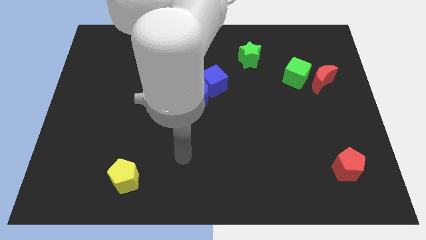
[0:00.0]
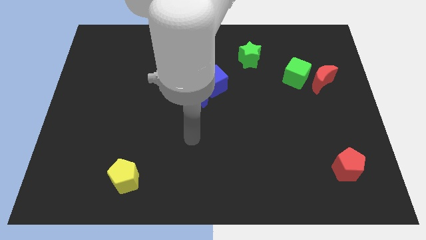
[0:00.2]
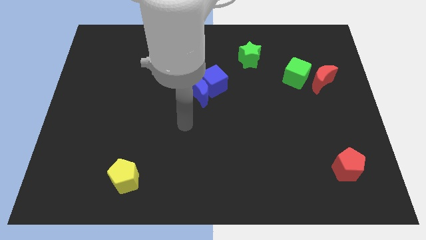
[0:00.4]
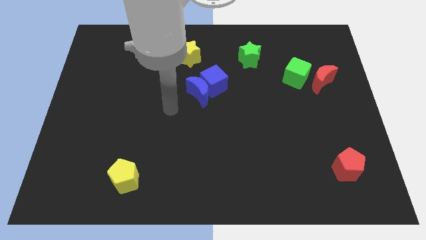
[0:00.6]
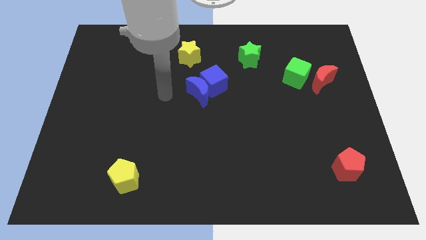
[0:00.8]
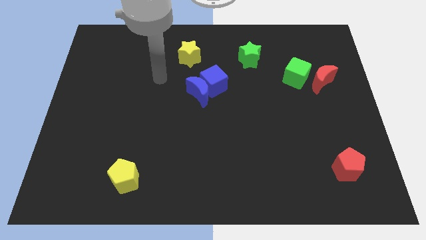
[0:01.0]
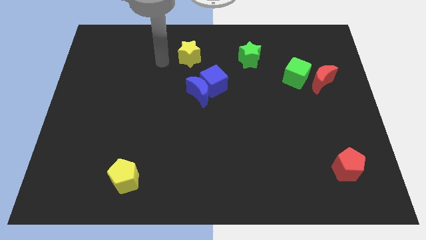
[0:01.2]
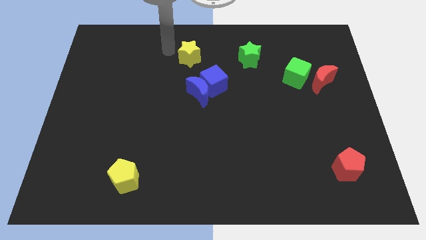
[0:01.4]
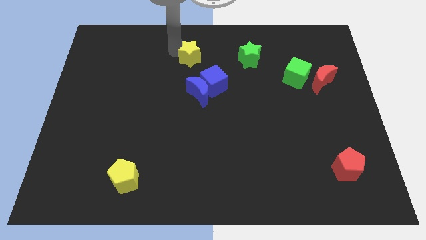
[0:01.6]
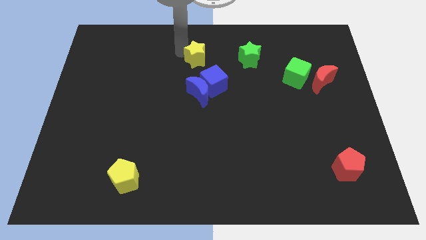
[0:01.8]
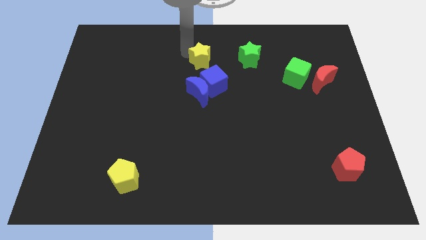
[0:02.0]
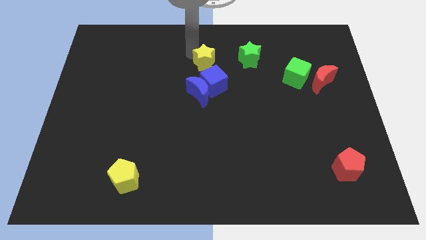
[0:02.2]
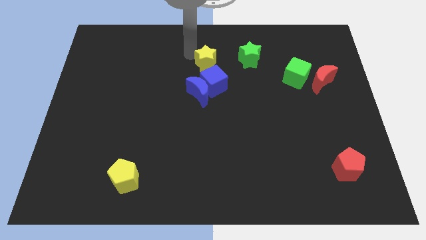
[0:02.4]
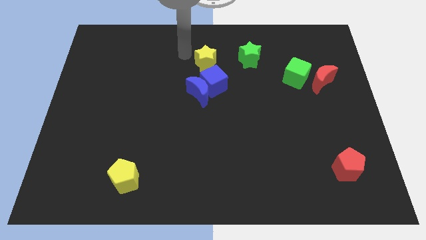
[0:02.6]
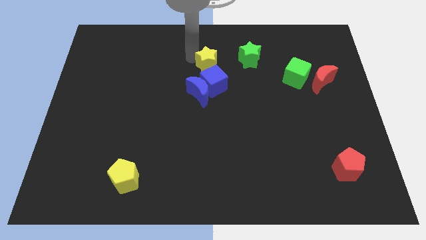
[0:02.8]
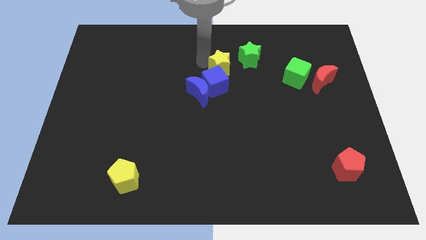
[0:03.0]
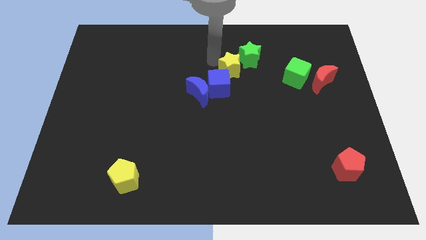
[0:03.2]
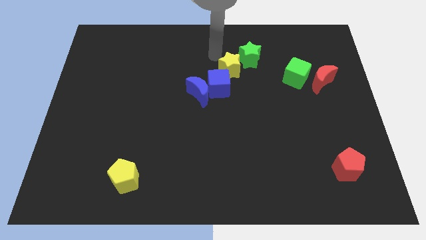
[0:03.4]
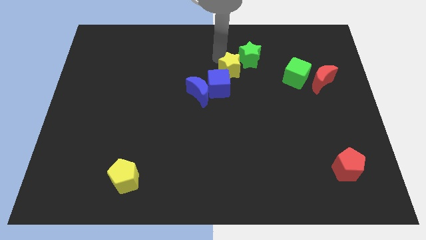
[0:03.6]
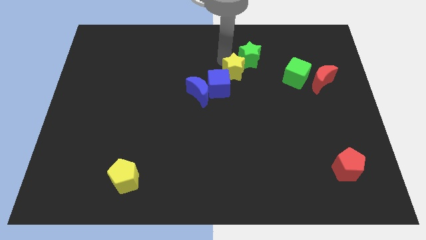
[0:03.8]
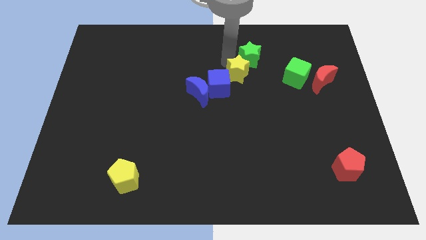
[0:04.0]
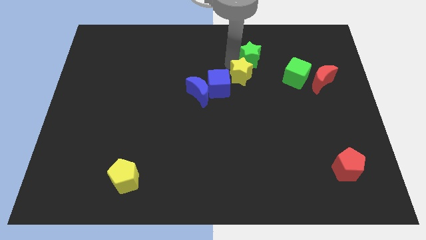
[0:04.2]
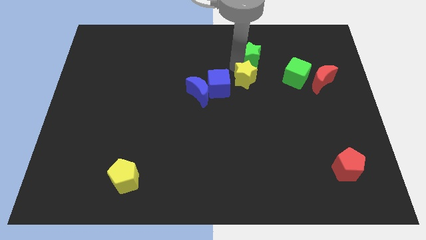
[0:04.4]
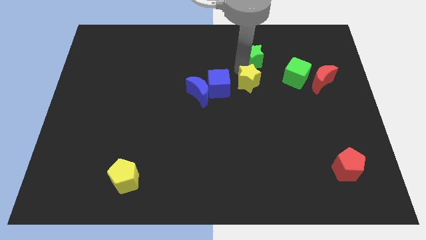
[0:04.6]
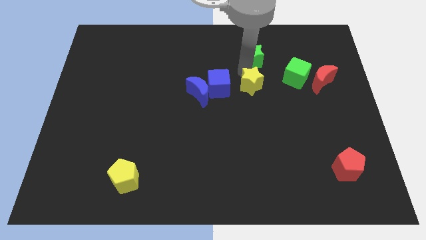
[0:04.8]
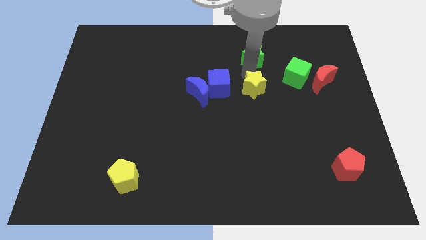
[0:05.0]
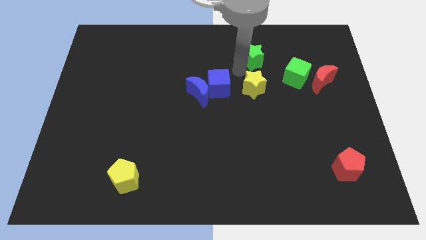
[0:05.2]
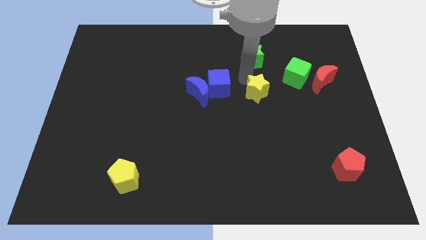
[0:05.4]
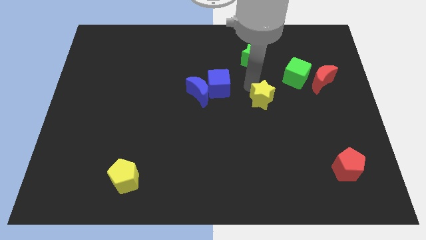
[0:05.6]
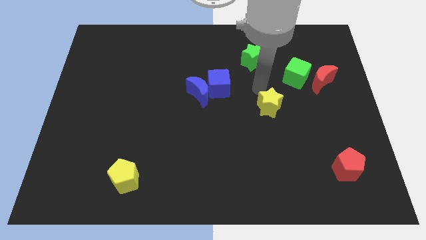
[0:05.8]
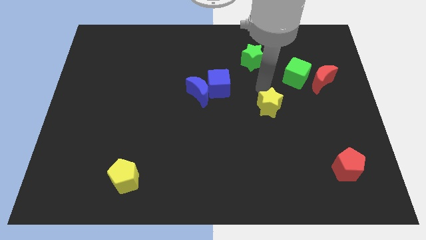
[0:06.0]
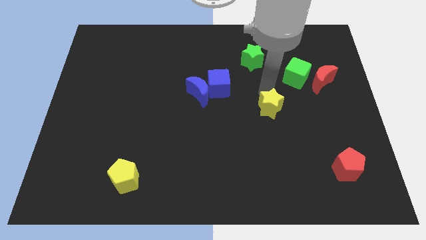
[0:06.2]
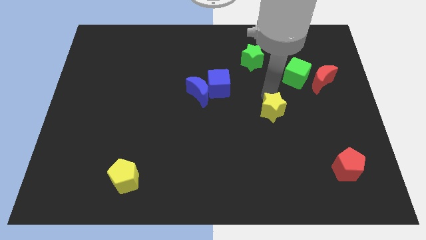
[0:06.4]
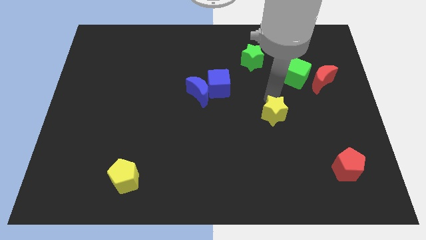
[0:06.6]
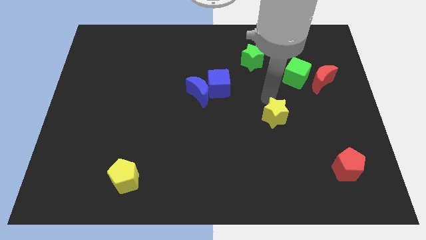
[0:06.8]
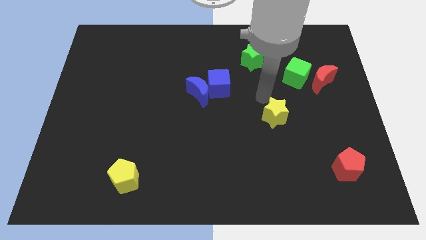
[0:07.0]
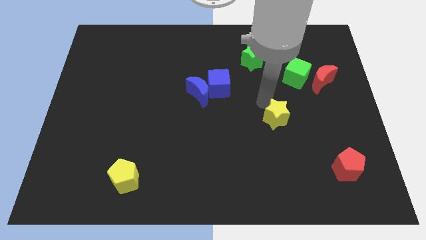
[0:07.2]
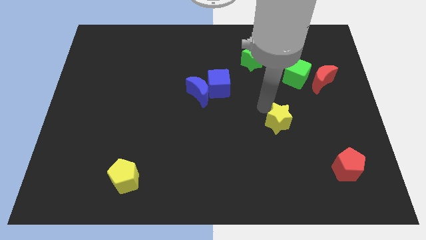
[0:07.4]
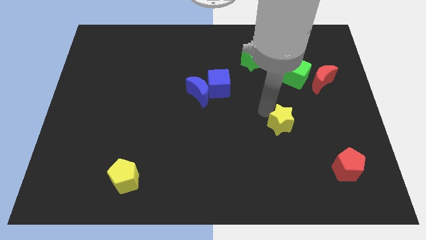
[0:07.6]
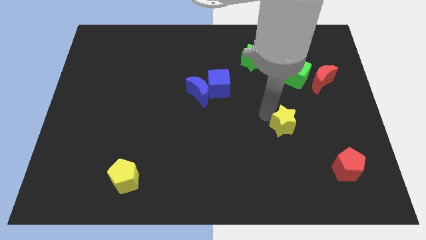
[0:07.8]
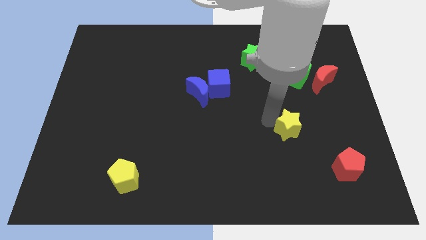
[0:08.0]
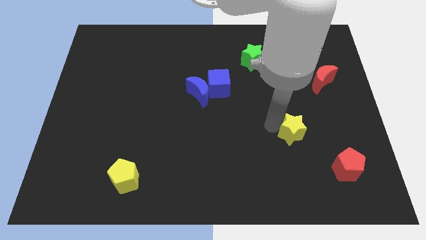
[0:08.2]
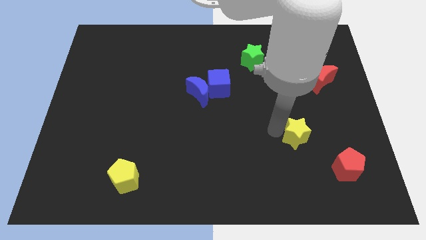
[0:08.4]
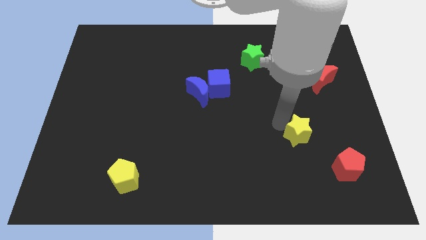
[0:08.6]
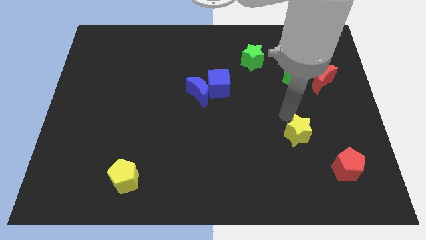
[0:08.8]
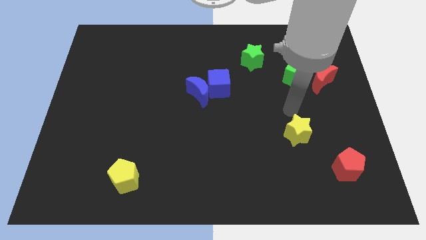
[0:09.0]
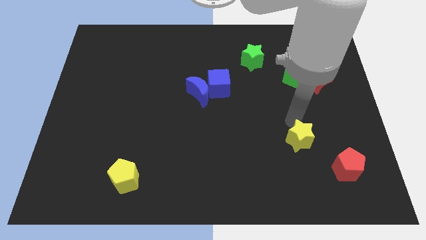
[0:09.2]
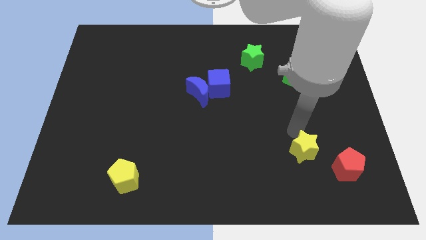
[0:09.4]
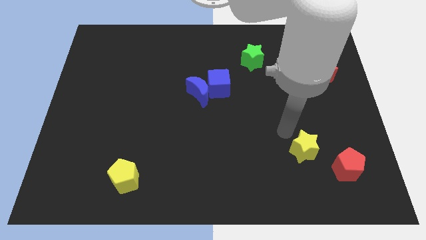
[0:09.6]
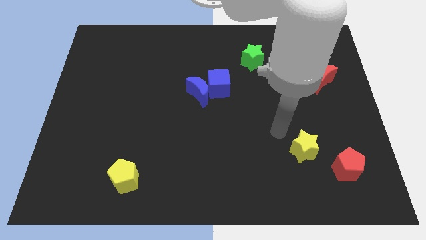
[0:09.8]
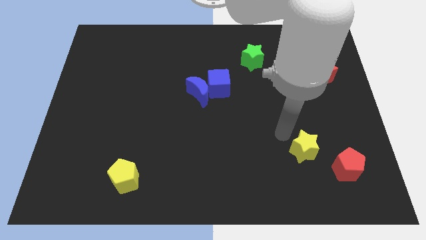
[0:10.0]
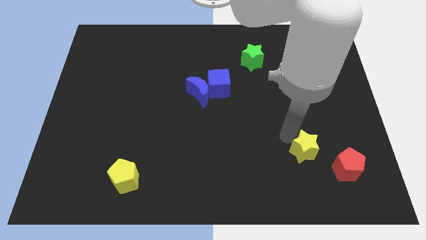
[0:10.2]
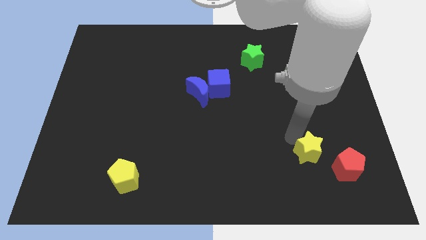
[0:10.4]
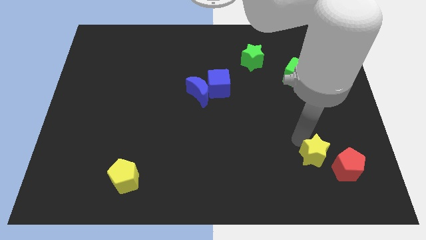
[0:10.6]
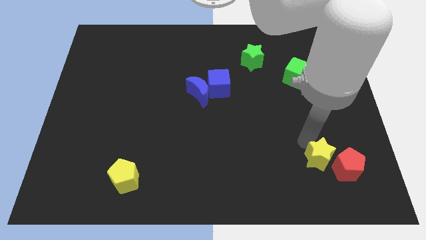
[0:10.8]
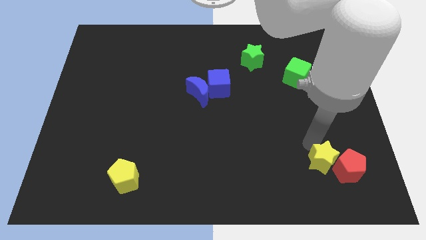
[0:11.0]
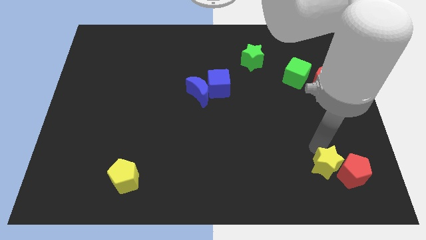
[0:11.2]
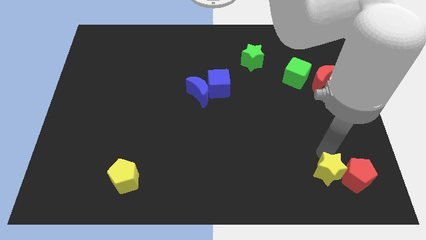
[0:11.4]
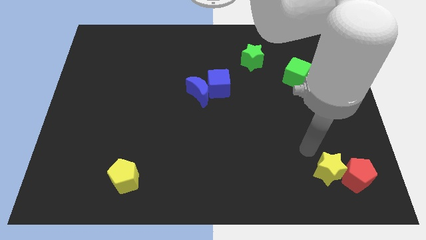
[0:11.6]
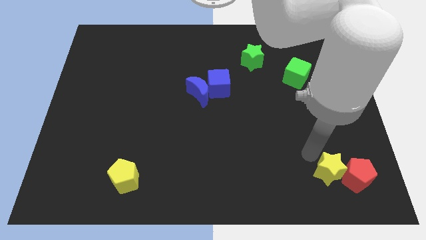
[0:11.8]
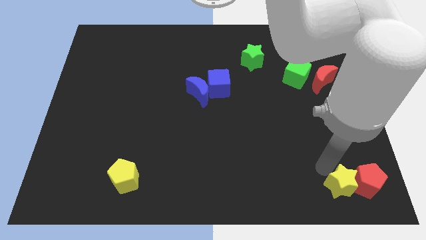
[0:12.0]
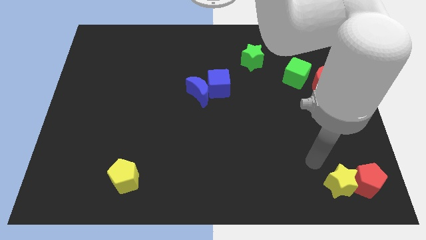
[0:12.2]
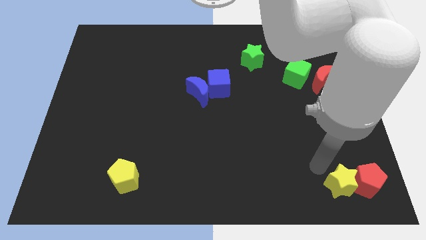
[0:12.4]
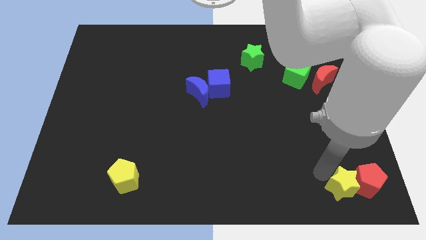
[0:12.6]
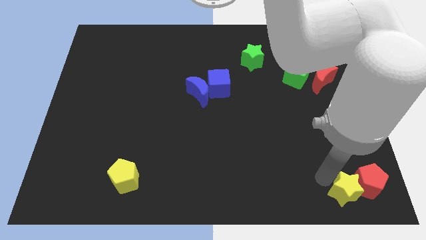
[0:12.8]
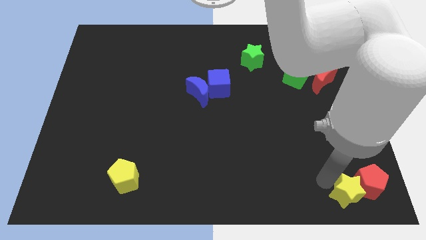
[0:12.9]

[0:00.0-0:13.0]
move the yellow star to the bottom right

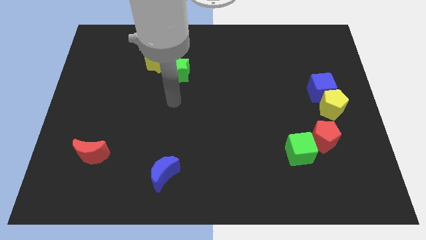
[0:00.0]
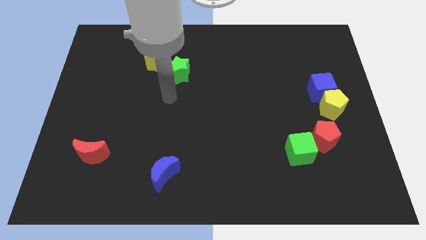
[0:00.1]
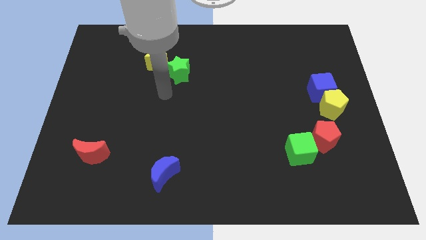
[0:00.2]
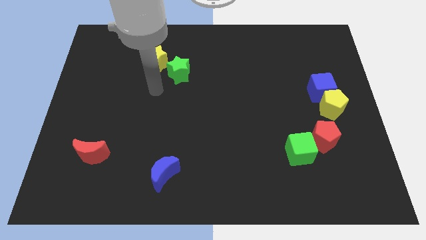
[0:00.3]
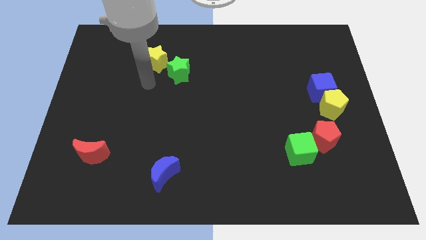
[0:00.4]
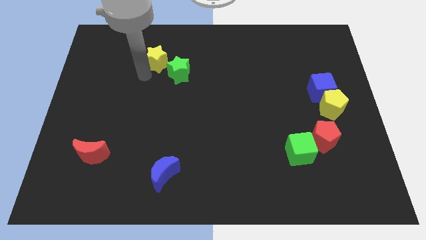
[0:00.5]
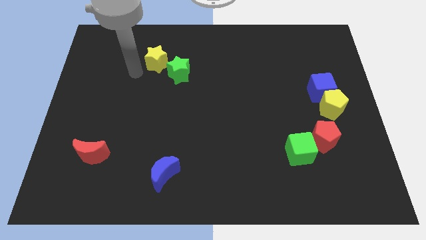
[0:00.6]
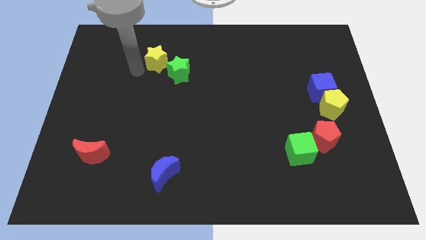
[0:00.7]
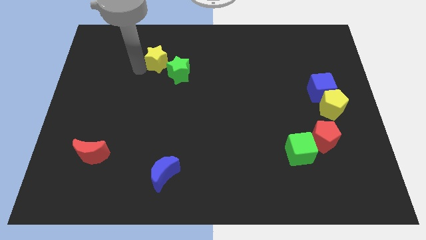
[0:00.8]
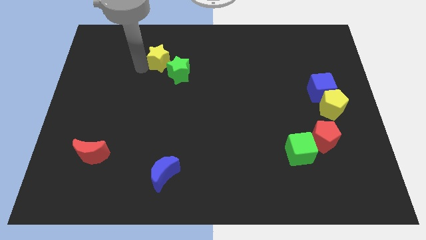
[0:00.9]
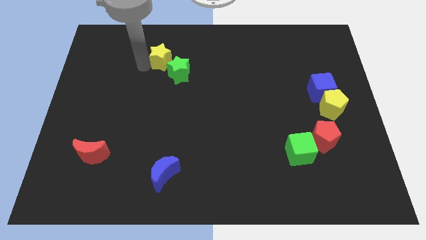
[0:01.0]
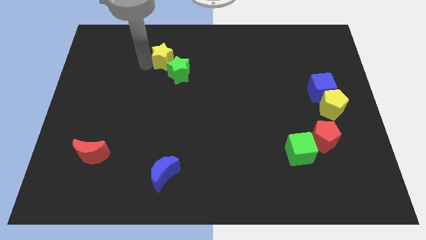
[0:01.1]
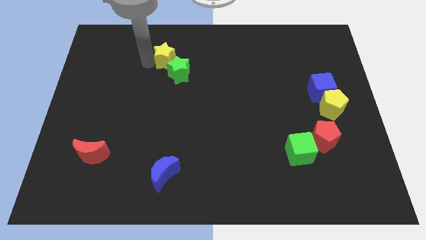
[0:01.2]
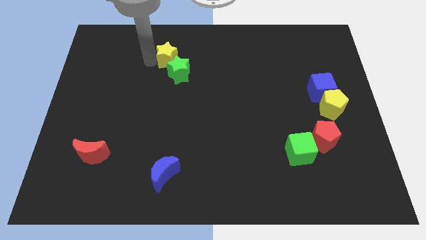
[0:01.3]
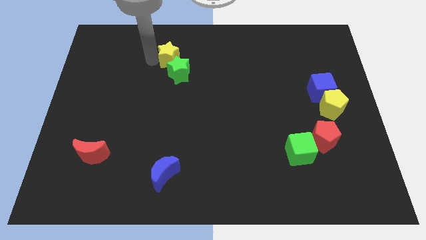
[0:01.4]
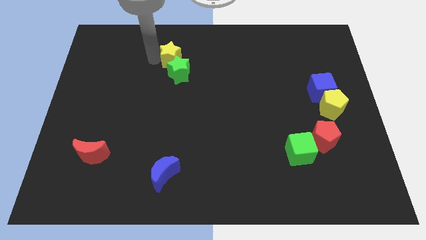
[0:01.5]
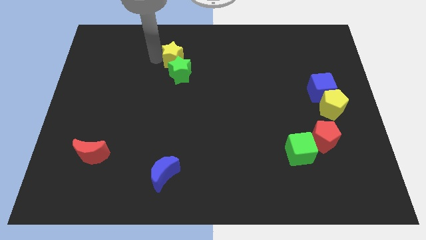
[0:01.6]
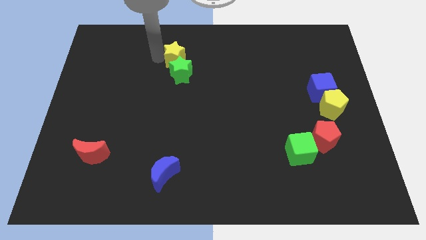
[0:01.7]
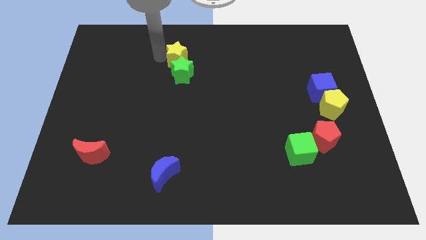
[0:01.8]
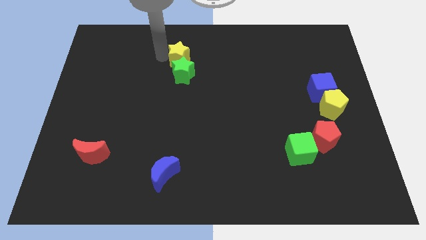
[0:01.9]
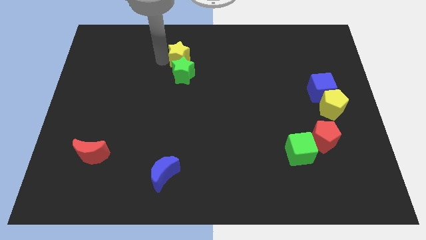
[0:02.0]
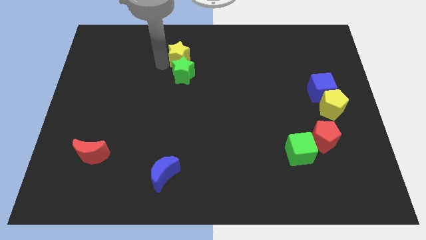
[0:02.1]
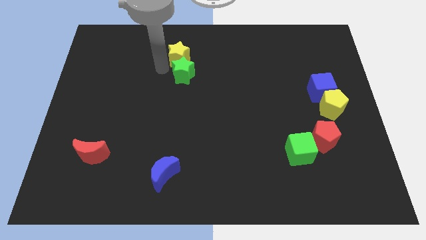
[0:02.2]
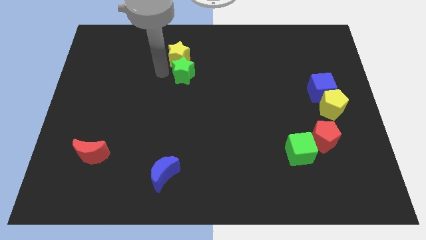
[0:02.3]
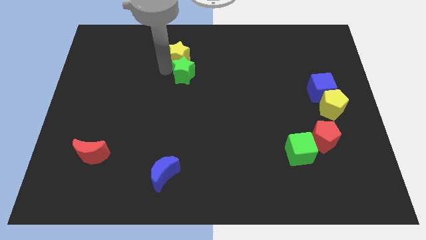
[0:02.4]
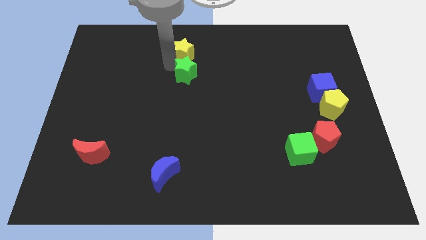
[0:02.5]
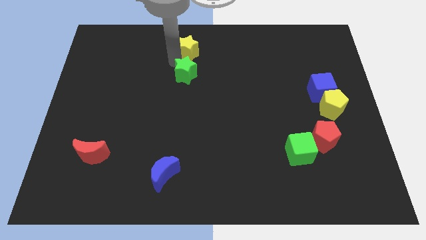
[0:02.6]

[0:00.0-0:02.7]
move the yellow star to the top side
